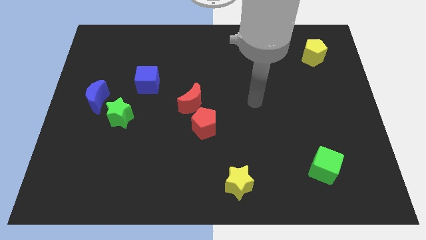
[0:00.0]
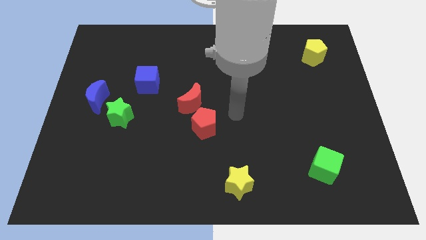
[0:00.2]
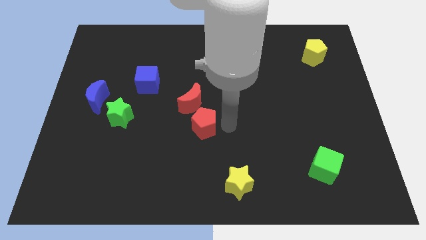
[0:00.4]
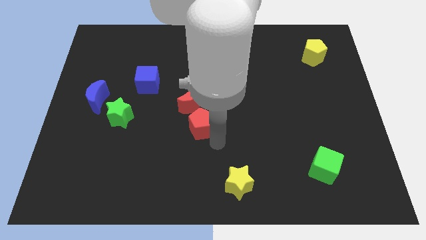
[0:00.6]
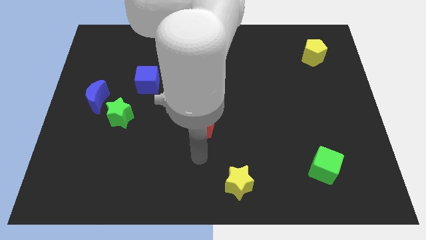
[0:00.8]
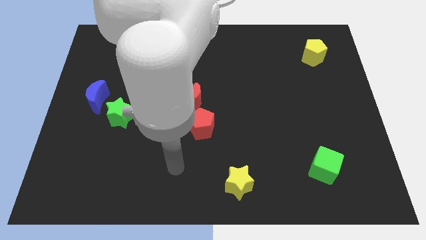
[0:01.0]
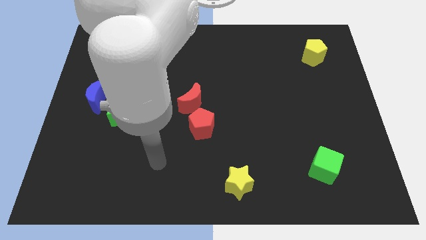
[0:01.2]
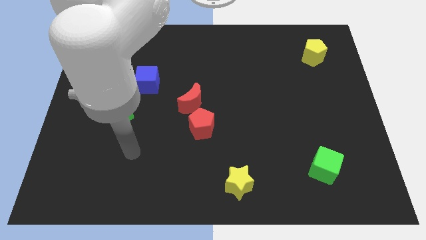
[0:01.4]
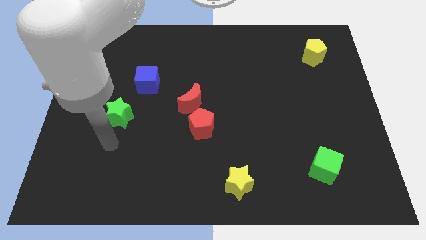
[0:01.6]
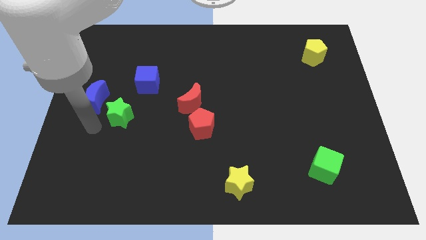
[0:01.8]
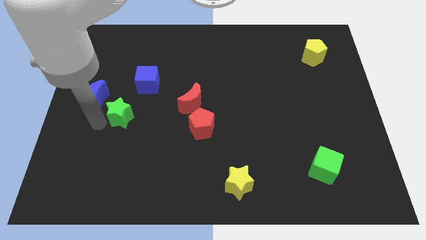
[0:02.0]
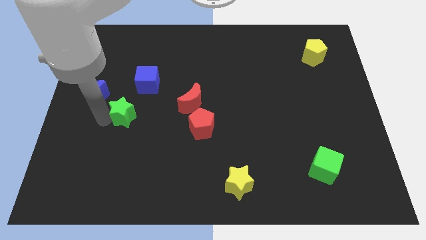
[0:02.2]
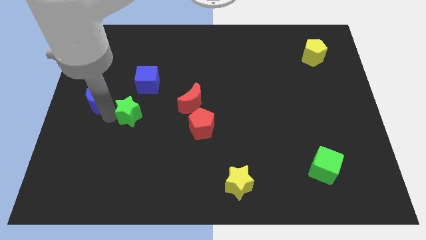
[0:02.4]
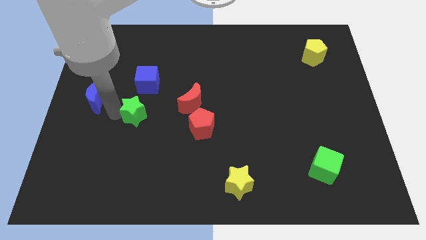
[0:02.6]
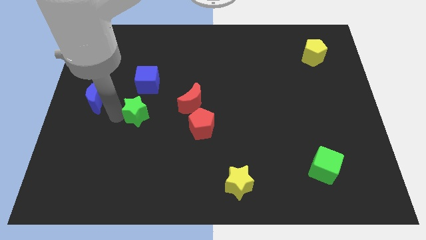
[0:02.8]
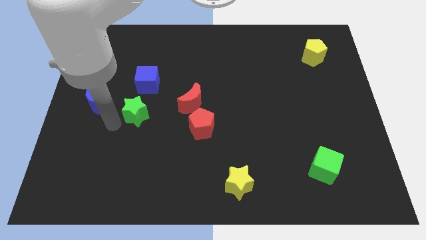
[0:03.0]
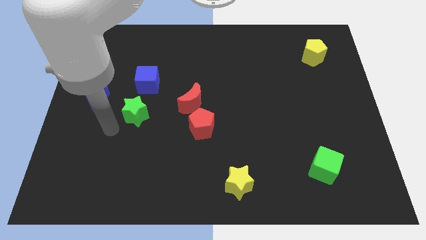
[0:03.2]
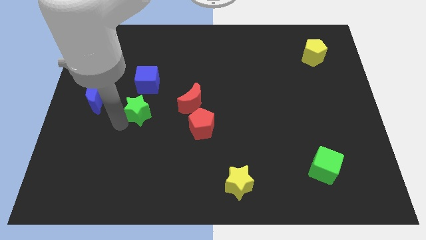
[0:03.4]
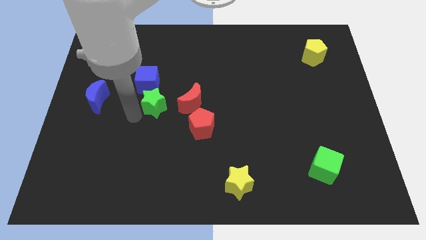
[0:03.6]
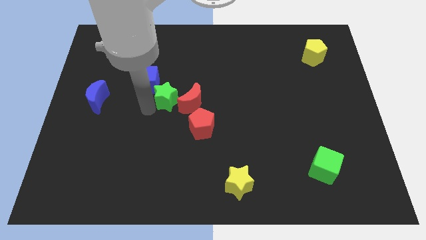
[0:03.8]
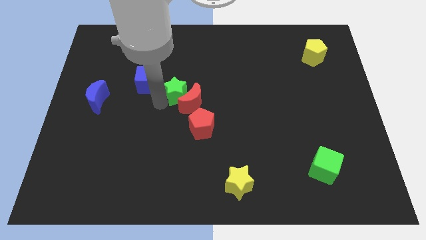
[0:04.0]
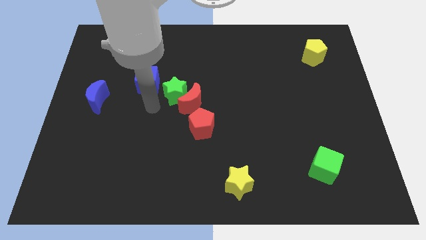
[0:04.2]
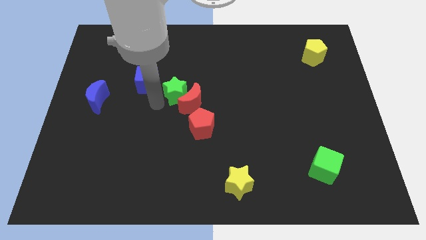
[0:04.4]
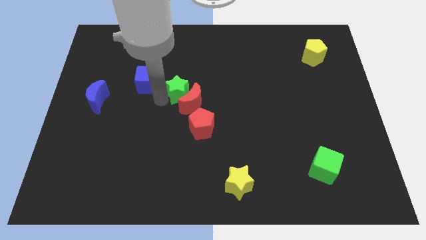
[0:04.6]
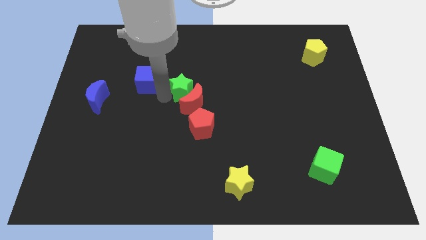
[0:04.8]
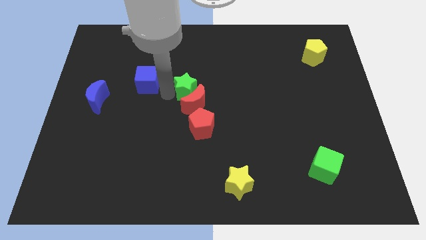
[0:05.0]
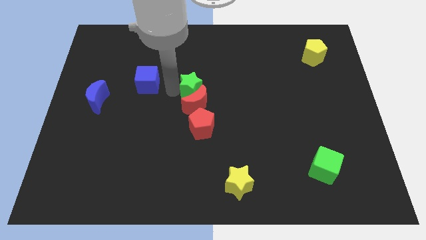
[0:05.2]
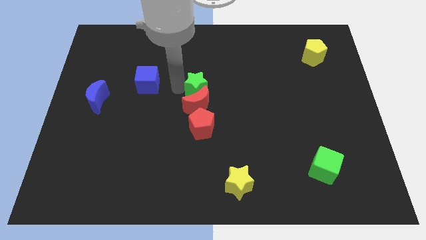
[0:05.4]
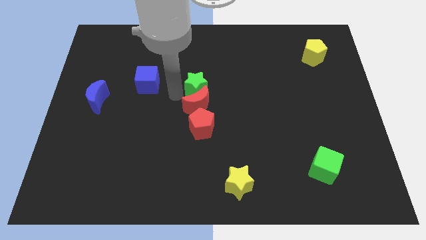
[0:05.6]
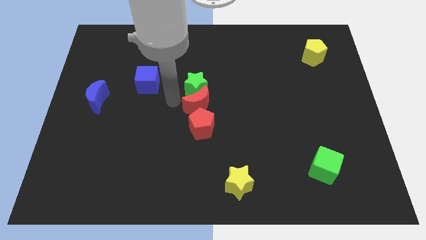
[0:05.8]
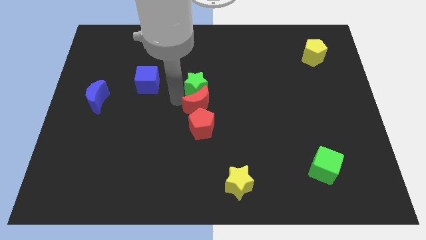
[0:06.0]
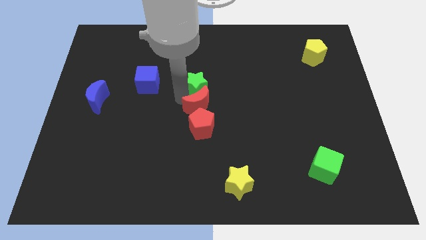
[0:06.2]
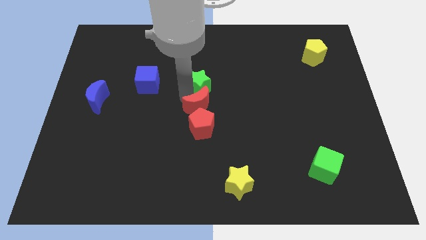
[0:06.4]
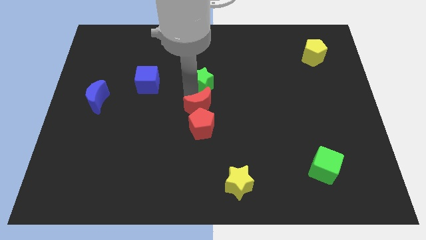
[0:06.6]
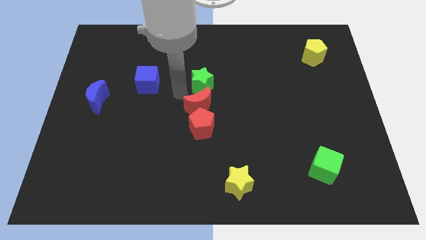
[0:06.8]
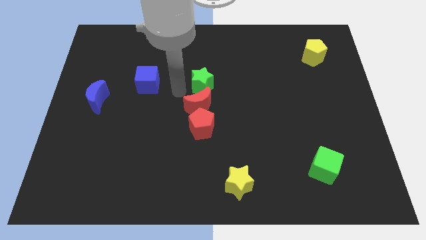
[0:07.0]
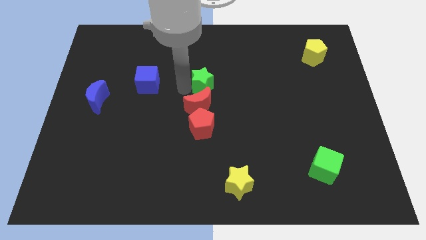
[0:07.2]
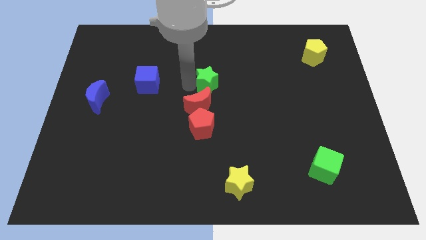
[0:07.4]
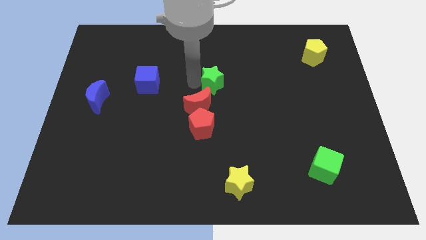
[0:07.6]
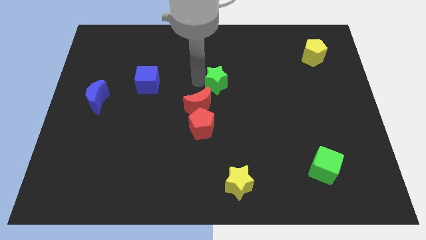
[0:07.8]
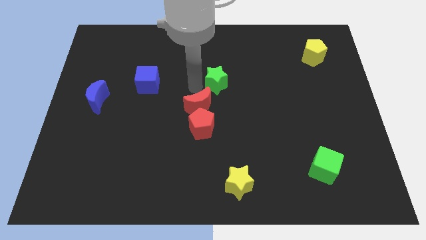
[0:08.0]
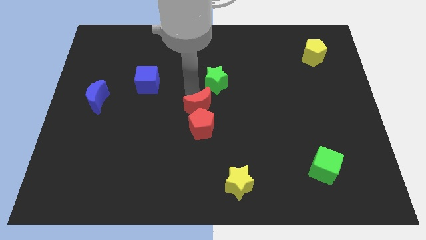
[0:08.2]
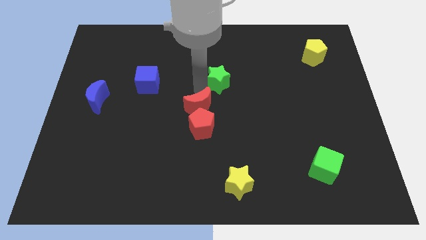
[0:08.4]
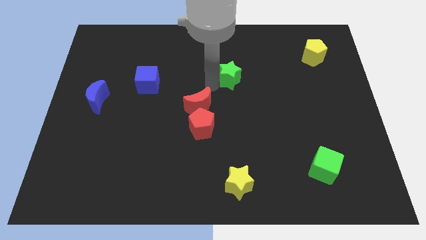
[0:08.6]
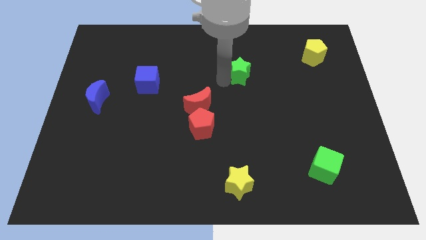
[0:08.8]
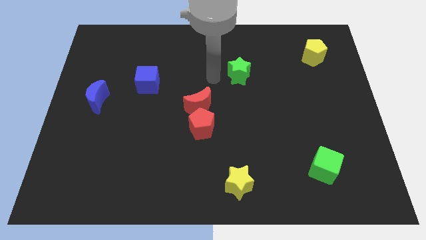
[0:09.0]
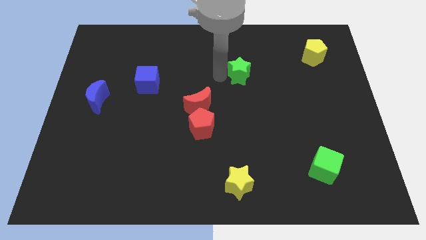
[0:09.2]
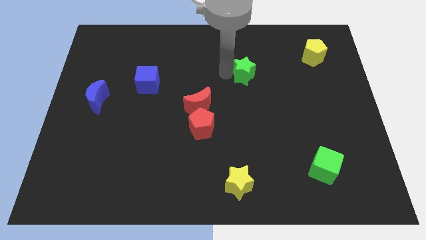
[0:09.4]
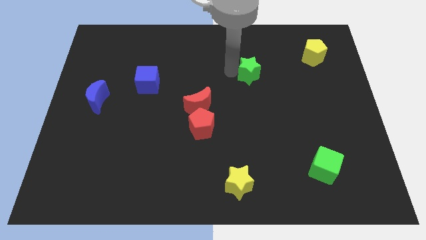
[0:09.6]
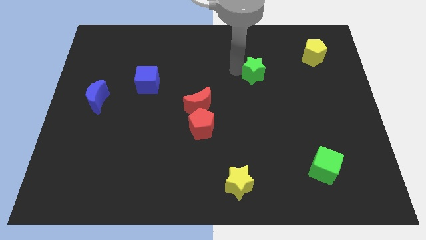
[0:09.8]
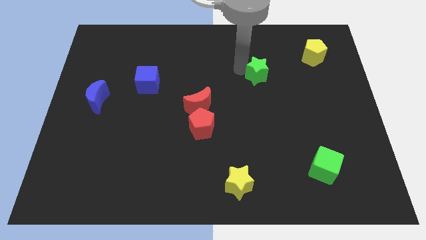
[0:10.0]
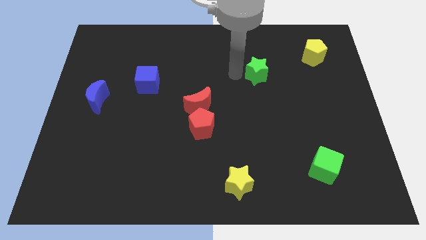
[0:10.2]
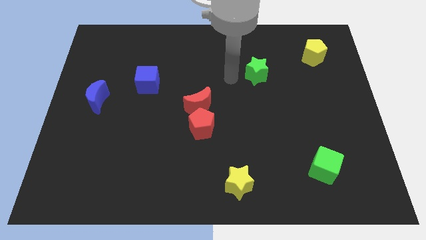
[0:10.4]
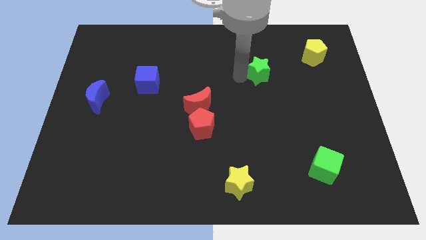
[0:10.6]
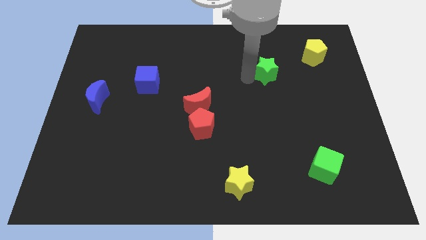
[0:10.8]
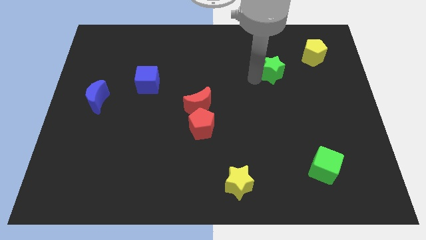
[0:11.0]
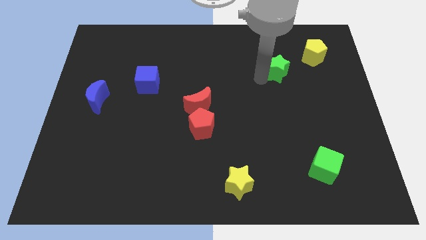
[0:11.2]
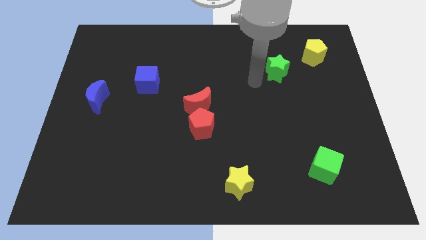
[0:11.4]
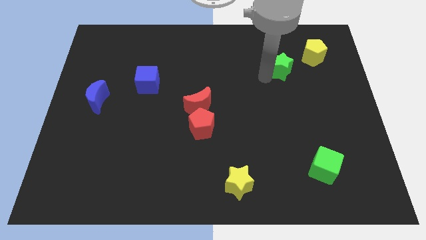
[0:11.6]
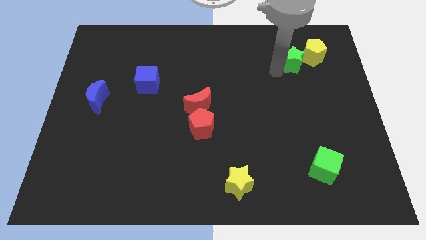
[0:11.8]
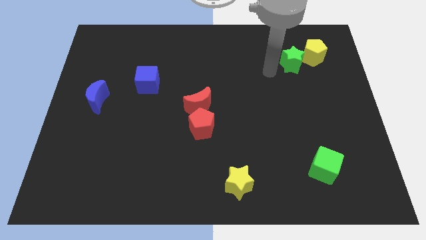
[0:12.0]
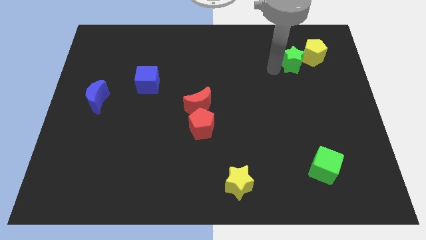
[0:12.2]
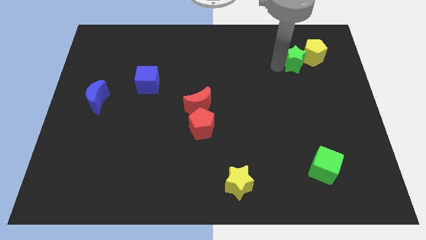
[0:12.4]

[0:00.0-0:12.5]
put the green star to the yellow pentagon

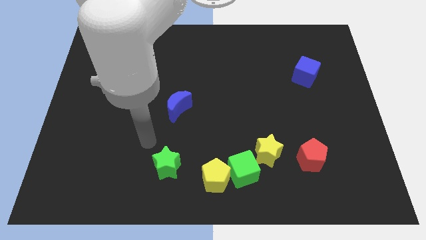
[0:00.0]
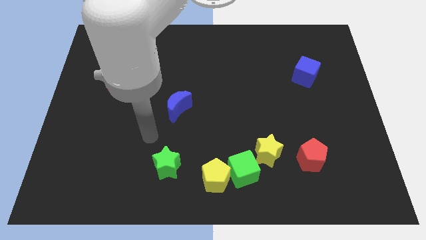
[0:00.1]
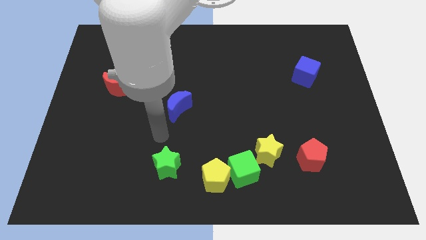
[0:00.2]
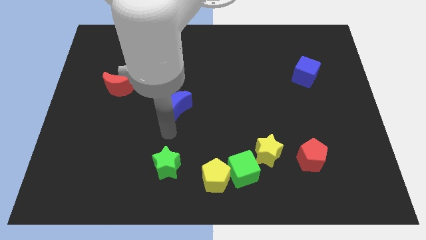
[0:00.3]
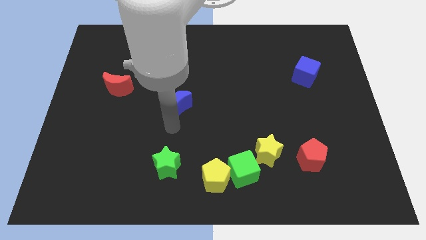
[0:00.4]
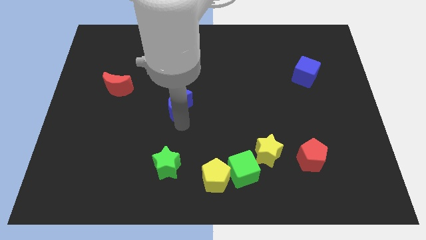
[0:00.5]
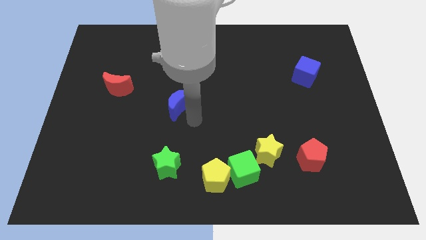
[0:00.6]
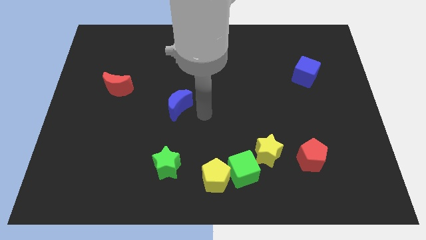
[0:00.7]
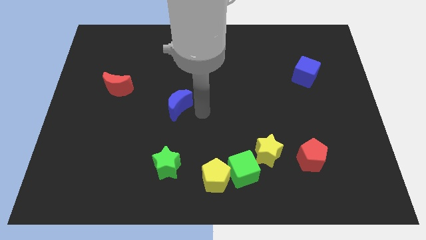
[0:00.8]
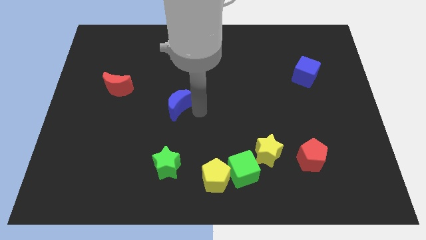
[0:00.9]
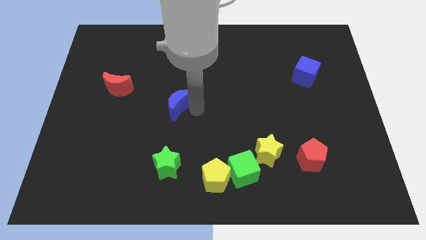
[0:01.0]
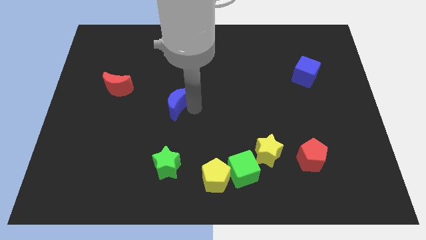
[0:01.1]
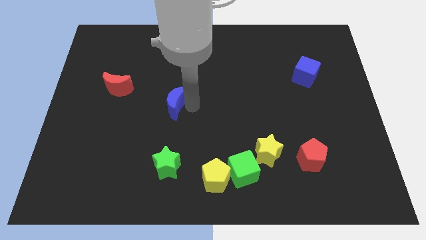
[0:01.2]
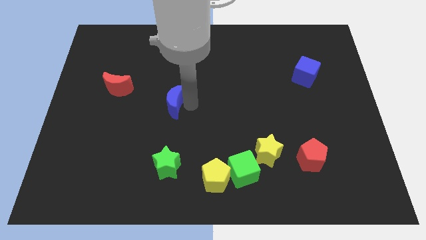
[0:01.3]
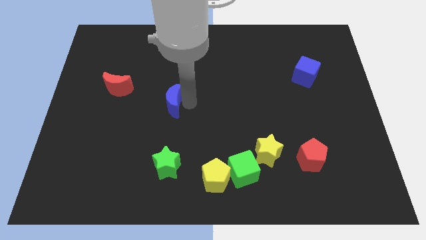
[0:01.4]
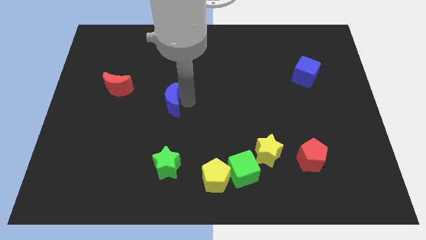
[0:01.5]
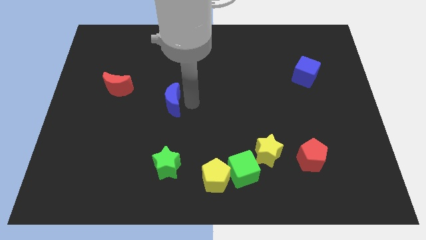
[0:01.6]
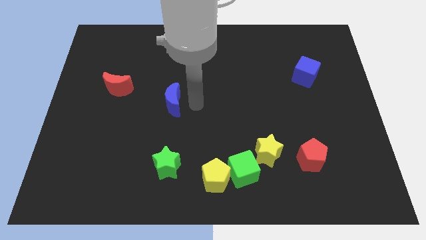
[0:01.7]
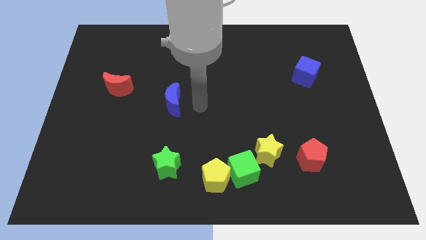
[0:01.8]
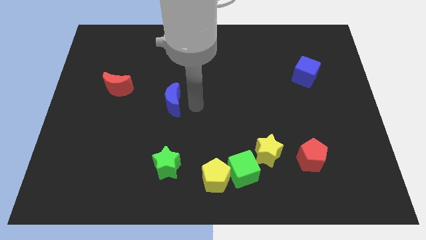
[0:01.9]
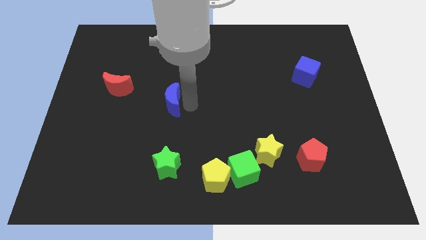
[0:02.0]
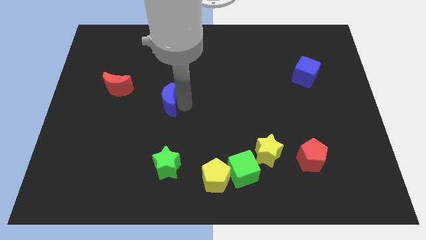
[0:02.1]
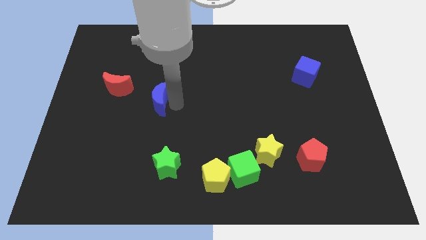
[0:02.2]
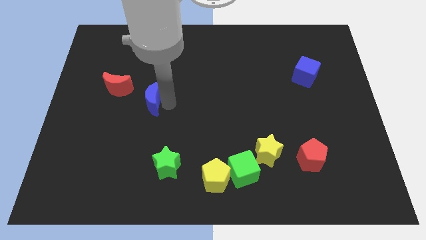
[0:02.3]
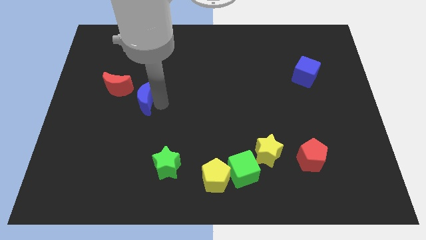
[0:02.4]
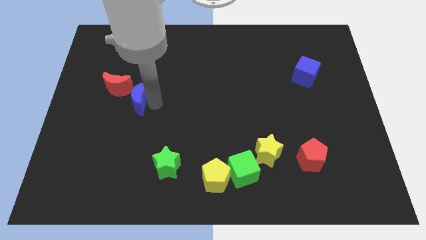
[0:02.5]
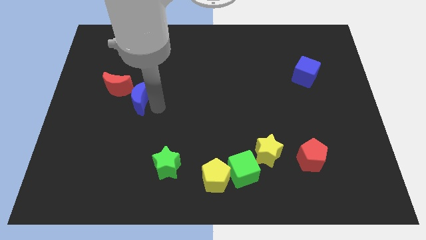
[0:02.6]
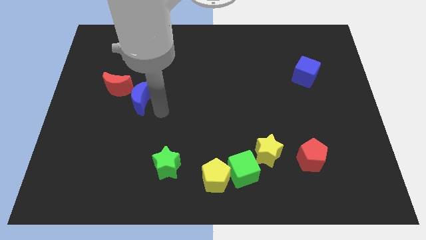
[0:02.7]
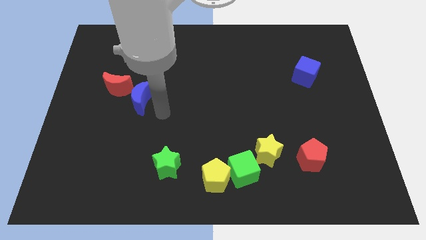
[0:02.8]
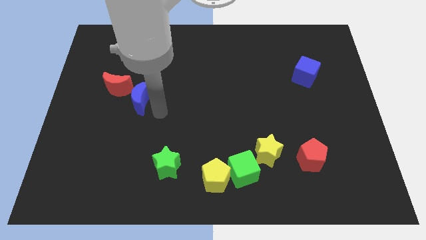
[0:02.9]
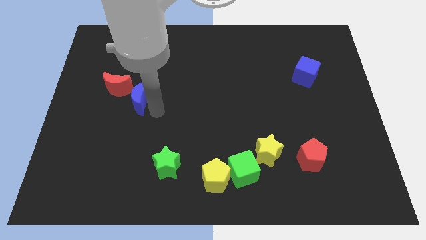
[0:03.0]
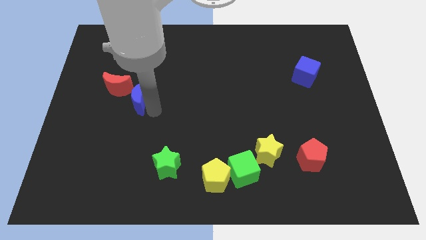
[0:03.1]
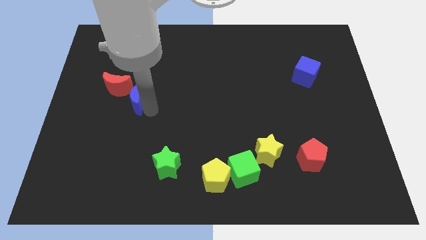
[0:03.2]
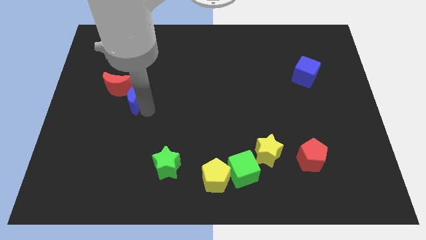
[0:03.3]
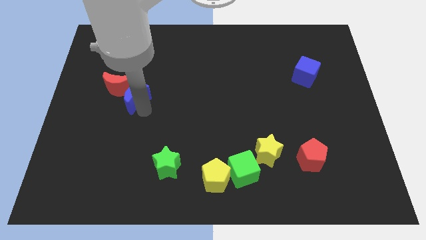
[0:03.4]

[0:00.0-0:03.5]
put the blue moon close to the red moon
